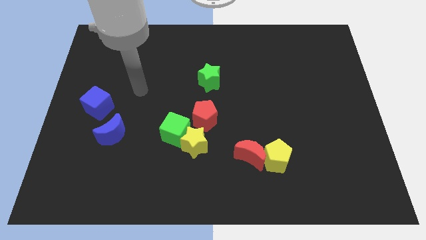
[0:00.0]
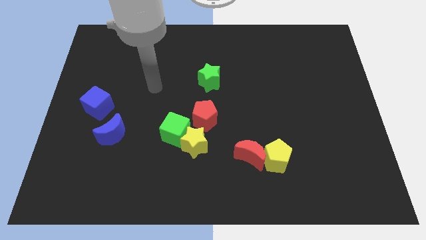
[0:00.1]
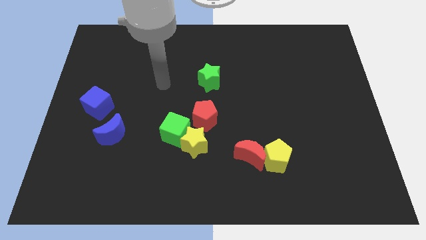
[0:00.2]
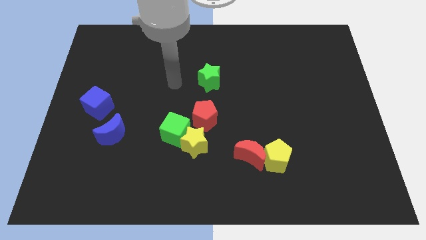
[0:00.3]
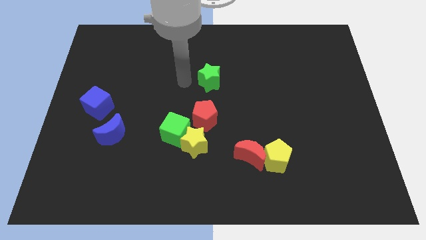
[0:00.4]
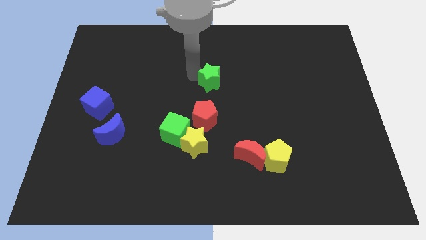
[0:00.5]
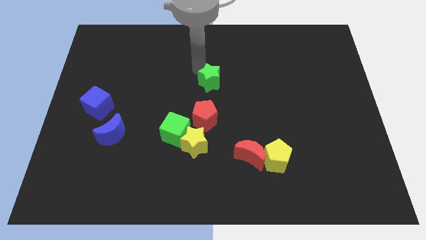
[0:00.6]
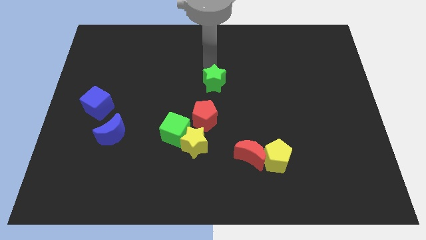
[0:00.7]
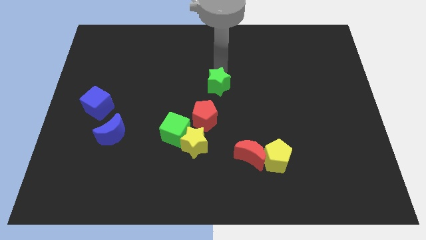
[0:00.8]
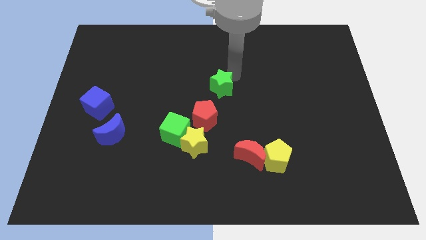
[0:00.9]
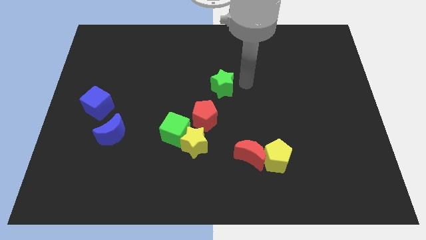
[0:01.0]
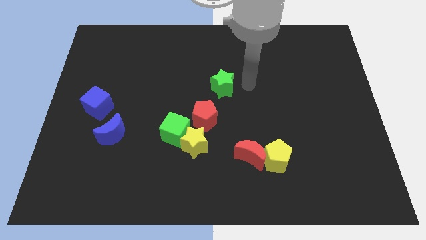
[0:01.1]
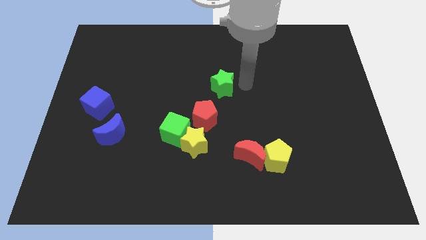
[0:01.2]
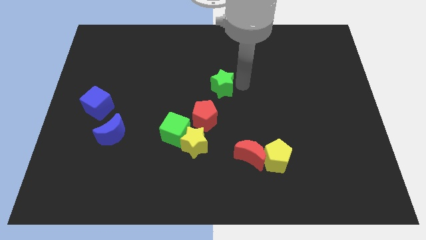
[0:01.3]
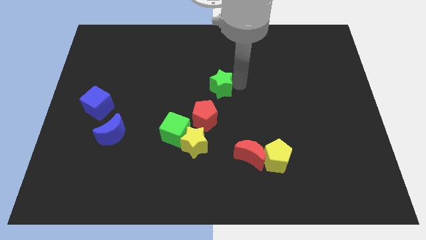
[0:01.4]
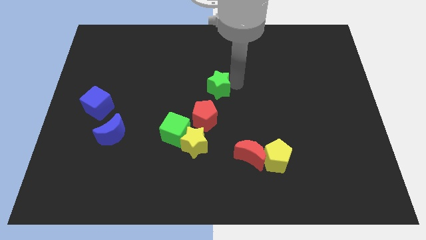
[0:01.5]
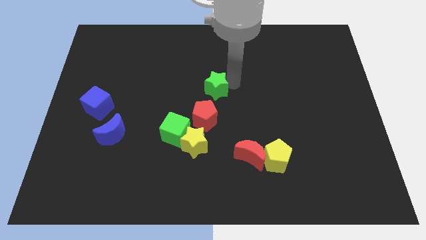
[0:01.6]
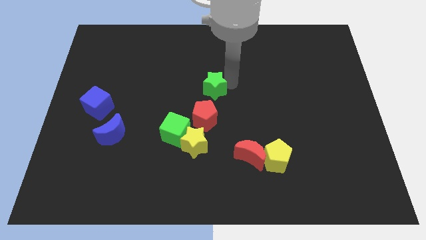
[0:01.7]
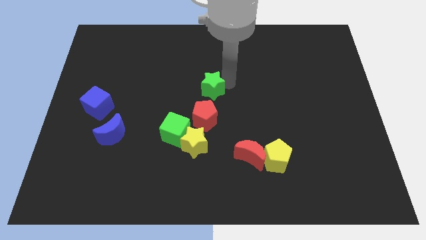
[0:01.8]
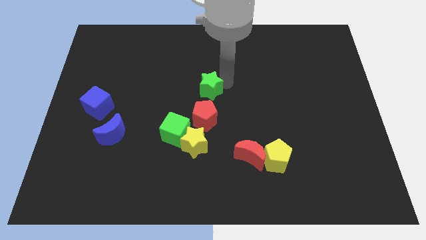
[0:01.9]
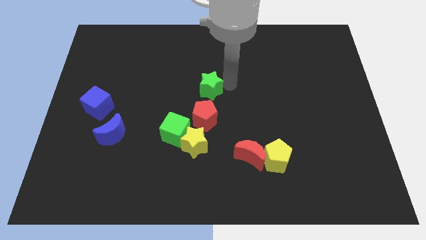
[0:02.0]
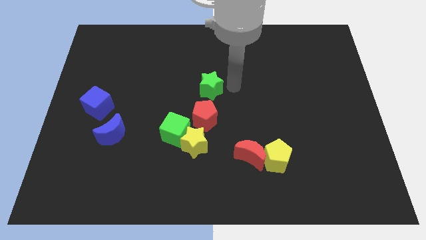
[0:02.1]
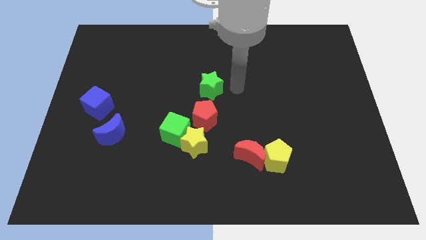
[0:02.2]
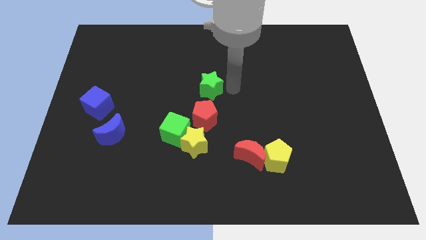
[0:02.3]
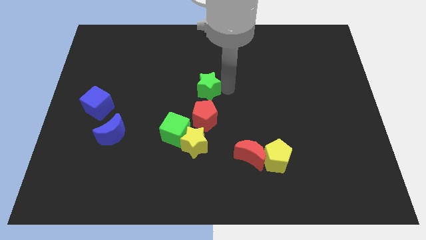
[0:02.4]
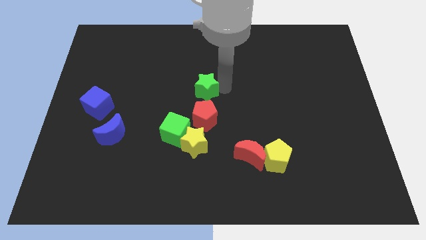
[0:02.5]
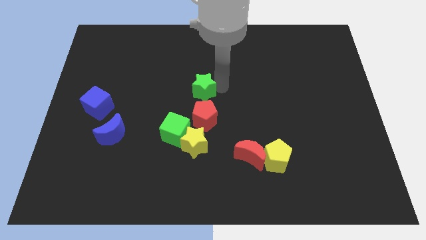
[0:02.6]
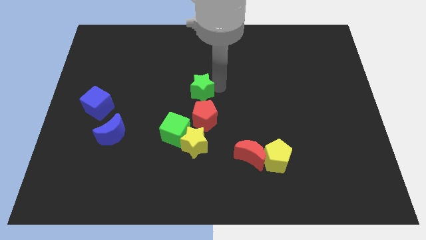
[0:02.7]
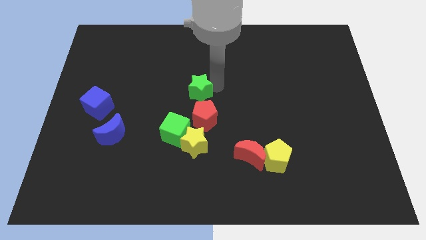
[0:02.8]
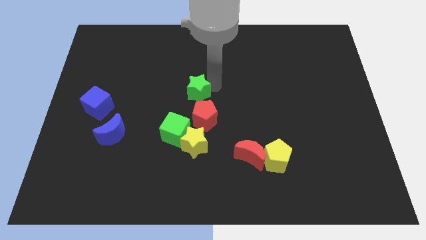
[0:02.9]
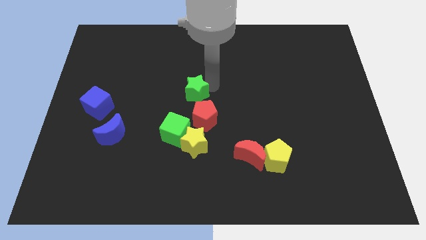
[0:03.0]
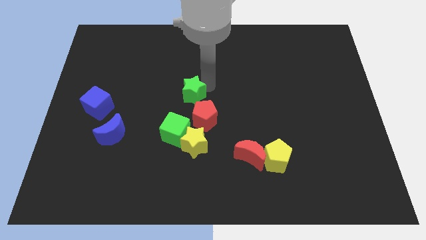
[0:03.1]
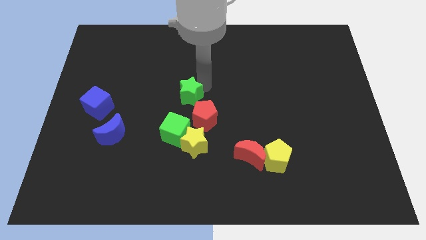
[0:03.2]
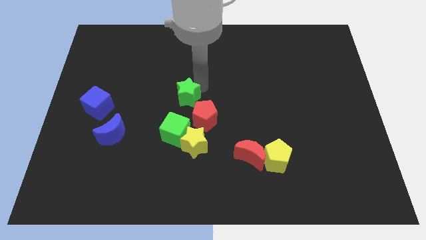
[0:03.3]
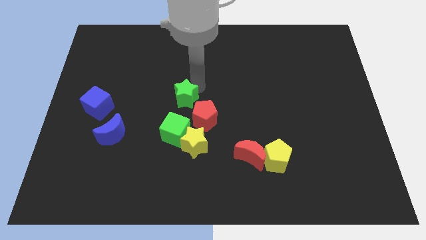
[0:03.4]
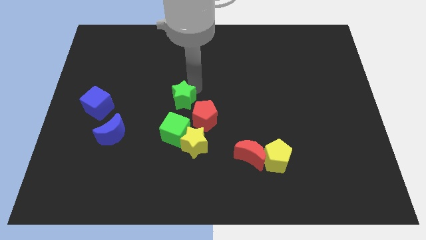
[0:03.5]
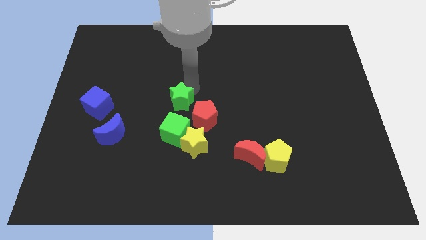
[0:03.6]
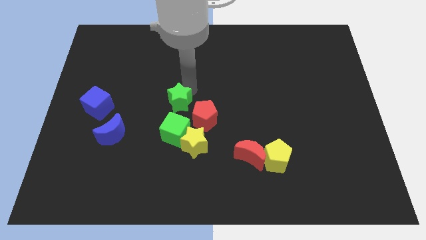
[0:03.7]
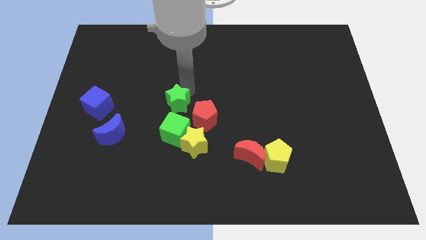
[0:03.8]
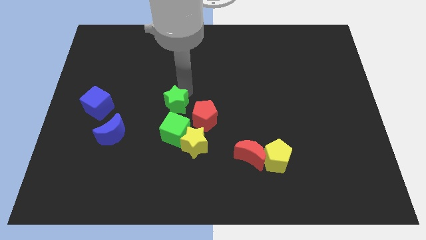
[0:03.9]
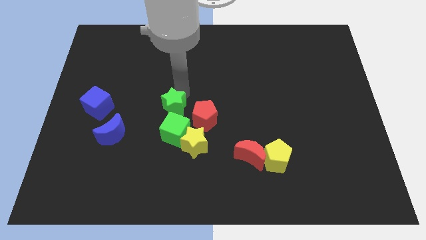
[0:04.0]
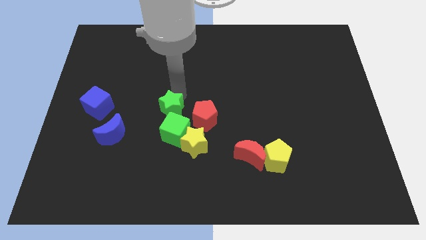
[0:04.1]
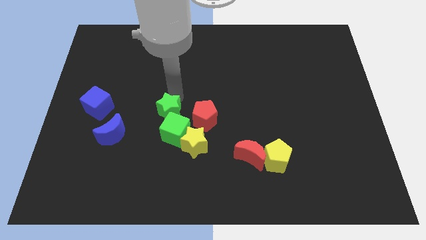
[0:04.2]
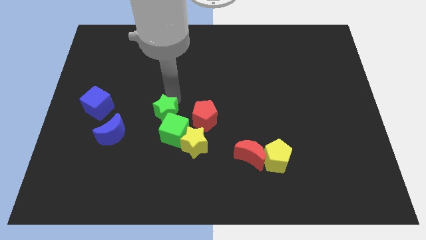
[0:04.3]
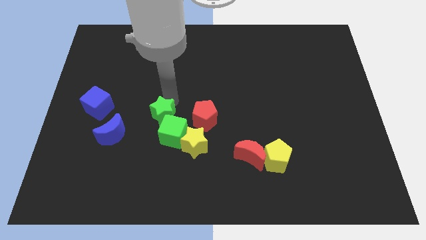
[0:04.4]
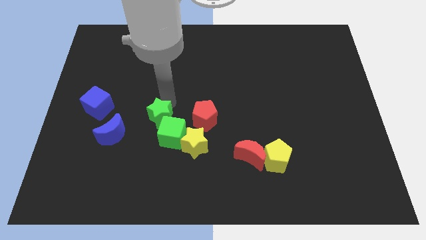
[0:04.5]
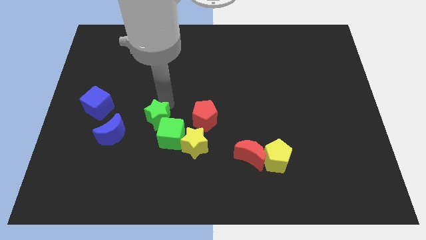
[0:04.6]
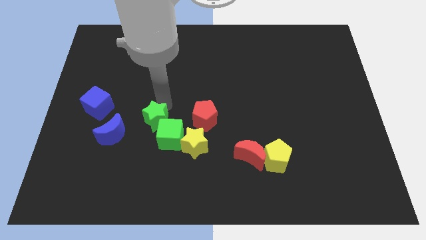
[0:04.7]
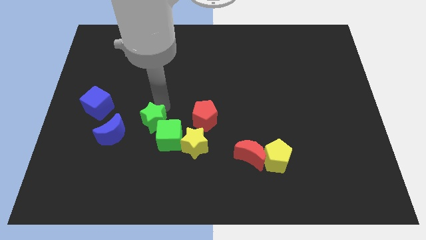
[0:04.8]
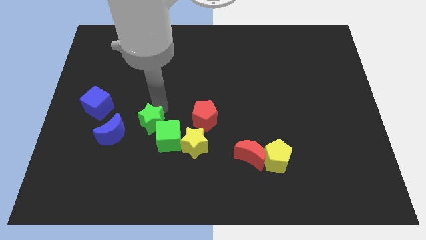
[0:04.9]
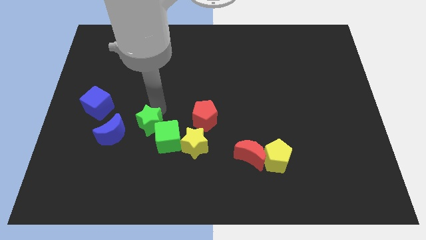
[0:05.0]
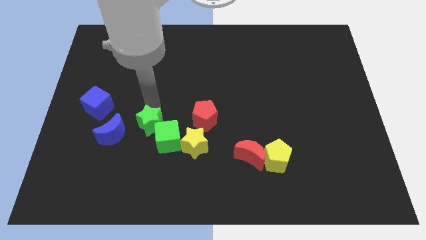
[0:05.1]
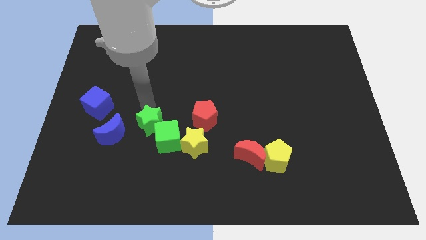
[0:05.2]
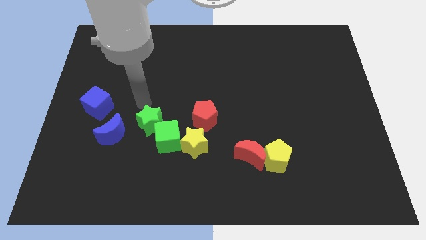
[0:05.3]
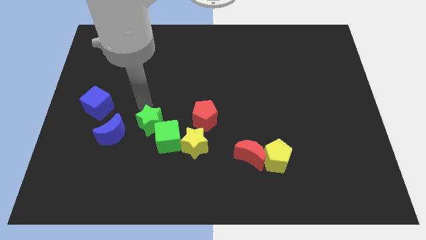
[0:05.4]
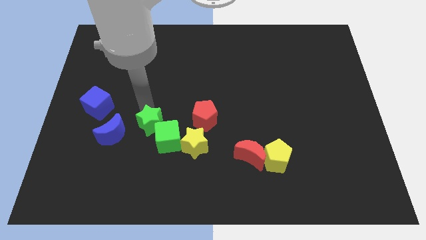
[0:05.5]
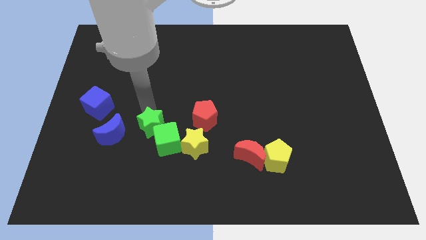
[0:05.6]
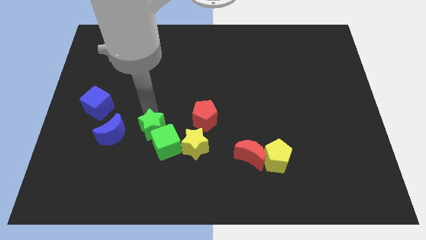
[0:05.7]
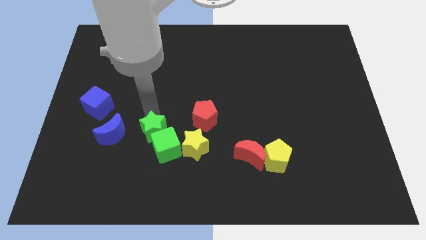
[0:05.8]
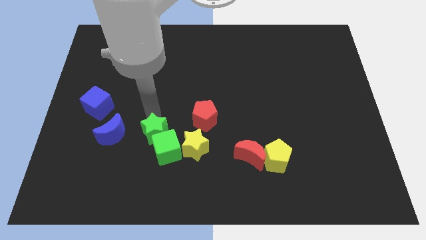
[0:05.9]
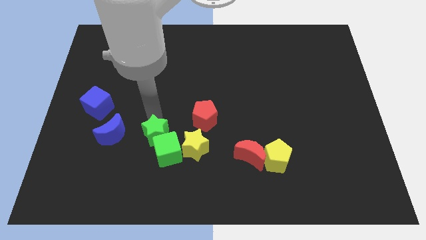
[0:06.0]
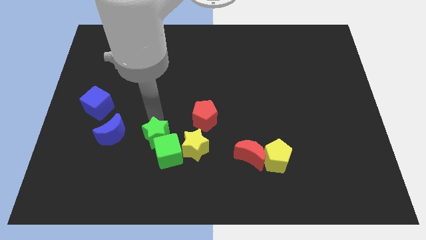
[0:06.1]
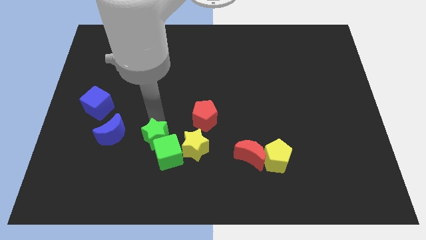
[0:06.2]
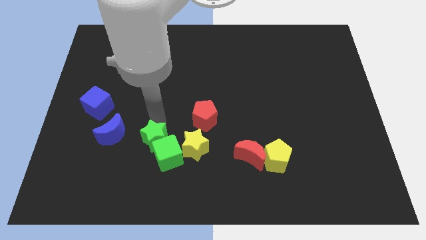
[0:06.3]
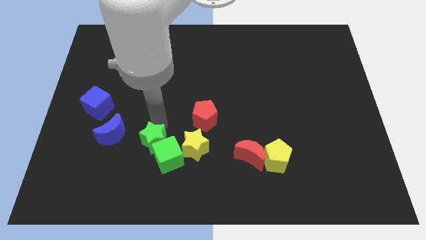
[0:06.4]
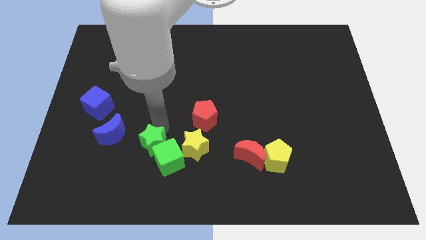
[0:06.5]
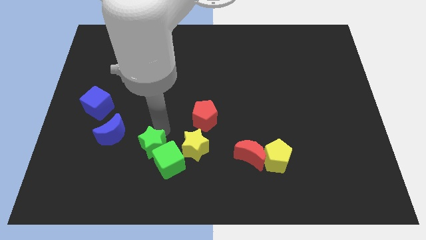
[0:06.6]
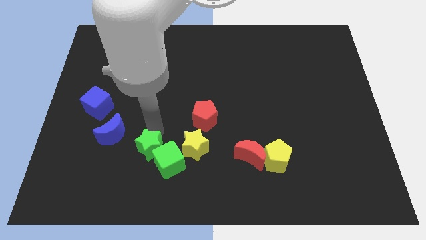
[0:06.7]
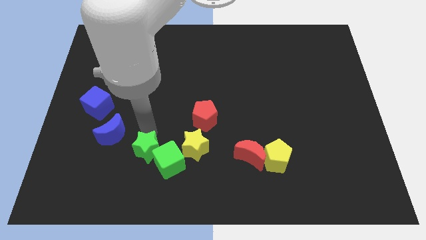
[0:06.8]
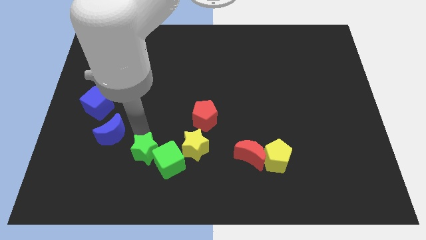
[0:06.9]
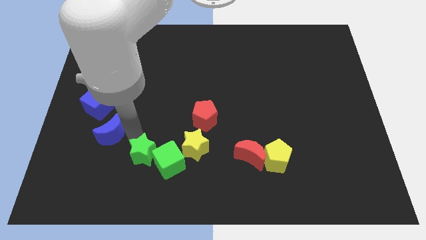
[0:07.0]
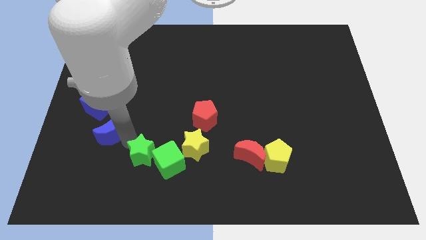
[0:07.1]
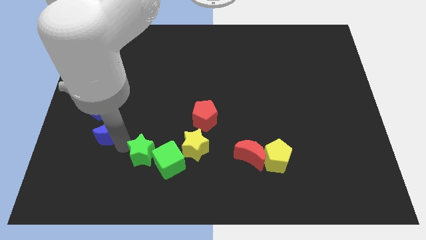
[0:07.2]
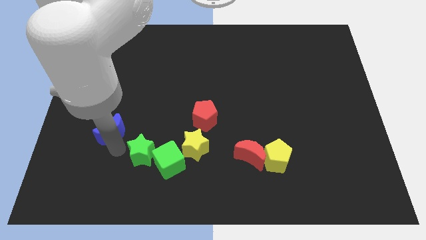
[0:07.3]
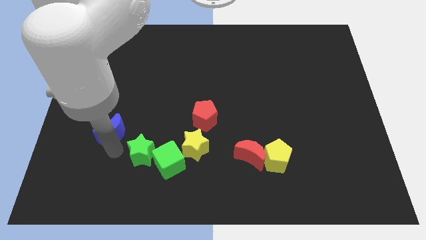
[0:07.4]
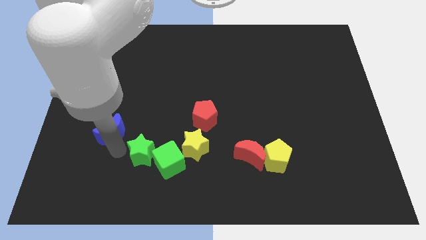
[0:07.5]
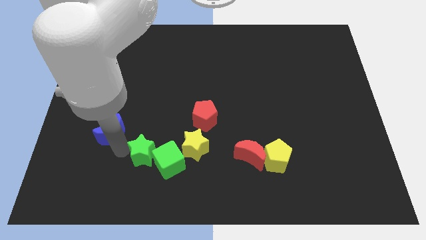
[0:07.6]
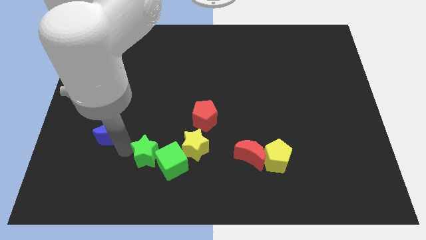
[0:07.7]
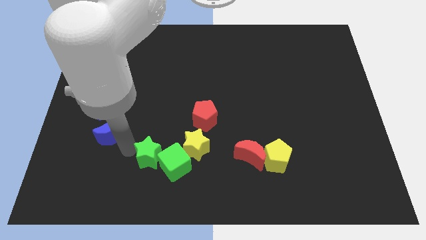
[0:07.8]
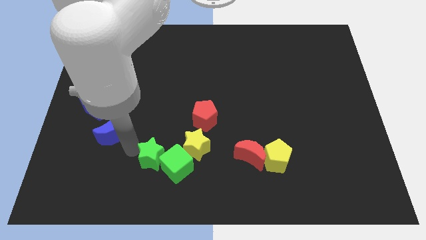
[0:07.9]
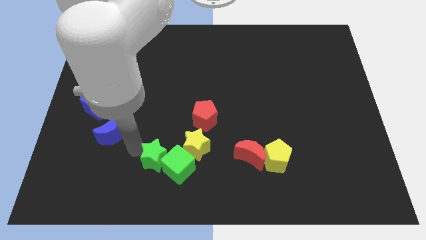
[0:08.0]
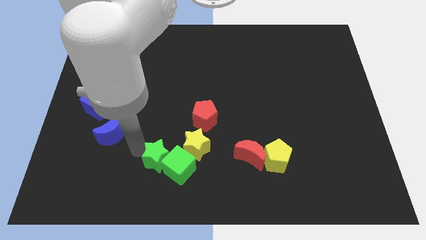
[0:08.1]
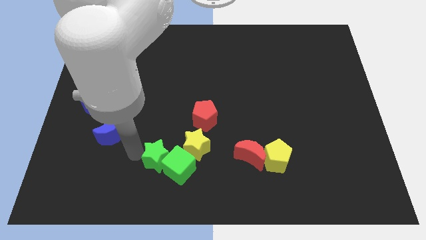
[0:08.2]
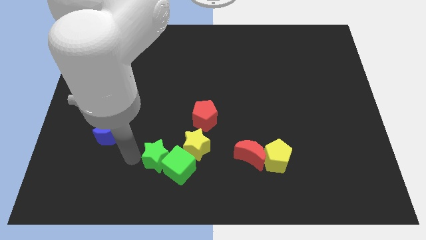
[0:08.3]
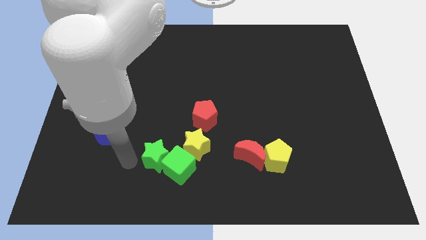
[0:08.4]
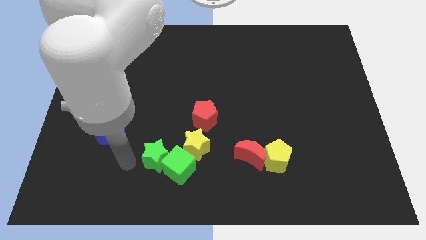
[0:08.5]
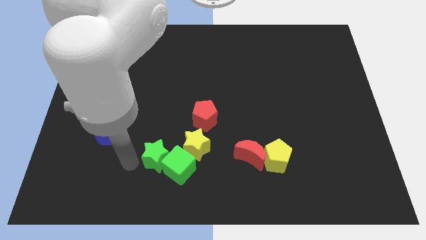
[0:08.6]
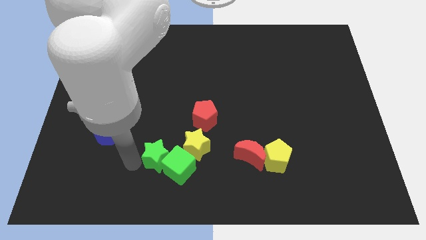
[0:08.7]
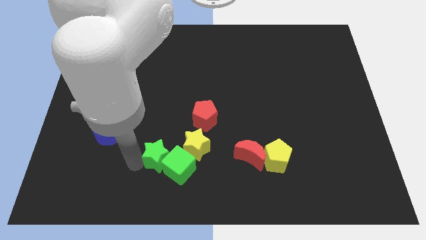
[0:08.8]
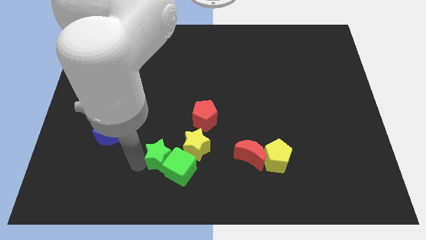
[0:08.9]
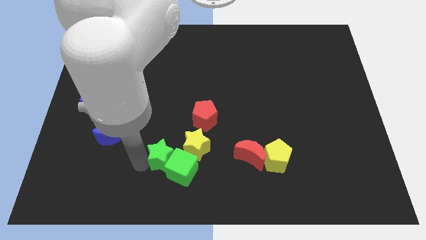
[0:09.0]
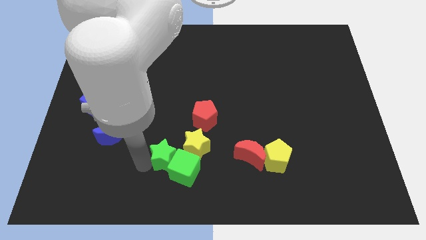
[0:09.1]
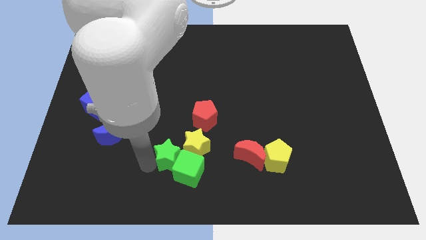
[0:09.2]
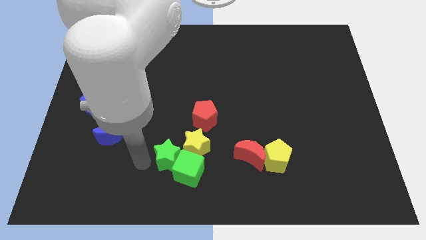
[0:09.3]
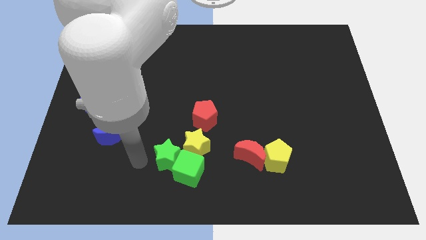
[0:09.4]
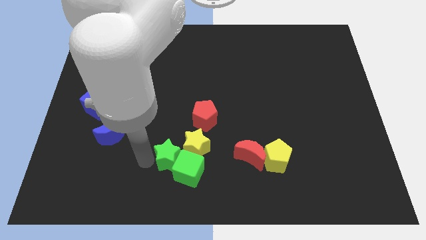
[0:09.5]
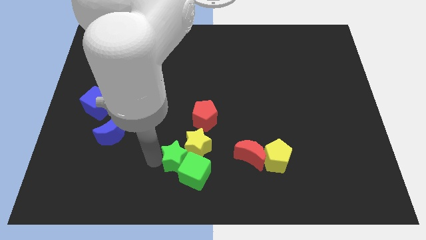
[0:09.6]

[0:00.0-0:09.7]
move the green star to the left side of the red moon
